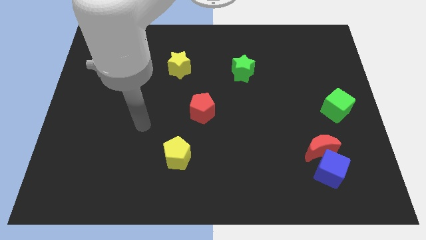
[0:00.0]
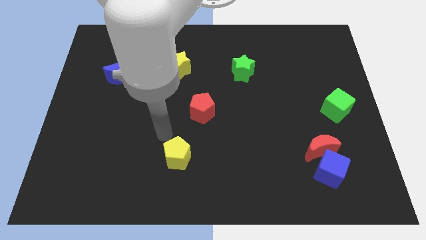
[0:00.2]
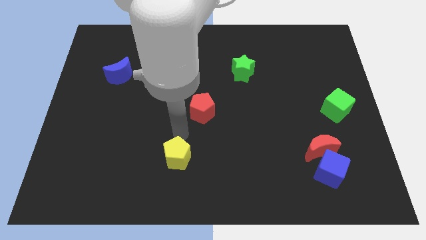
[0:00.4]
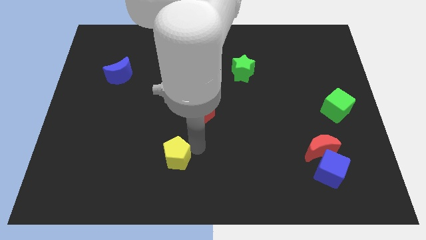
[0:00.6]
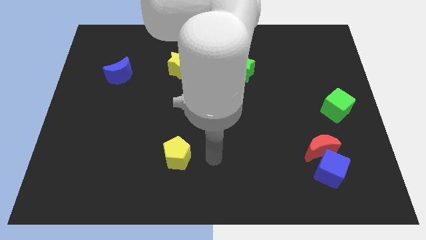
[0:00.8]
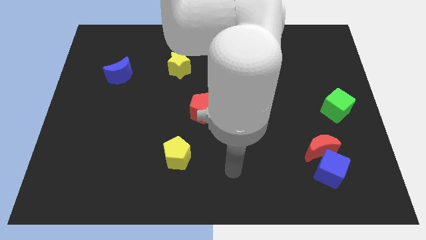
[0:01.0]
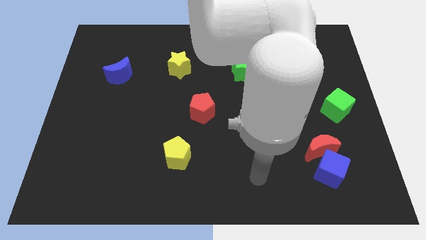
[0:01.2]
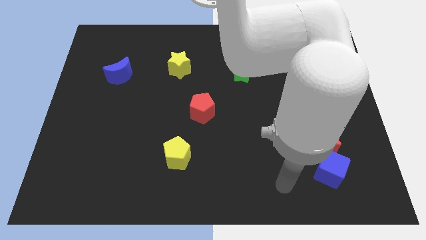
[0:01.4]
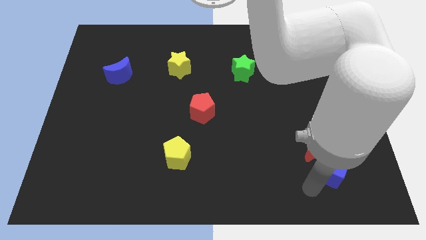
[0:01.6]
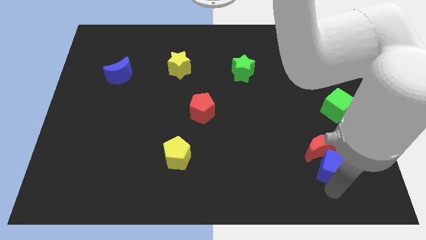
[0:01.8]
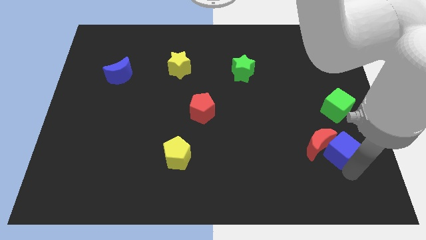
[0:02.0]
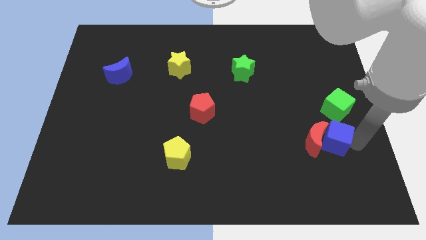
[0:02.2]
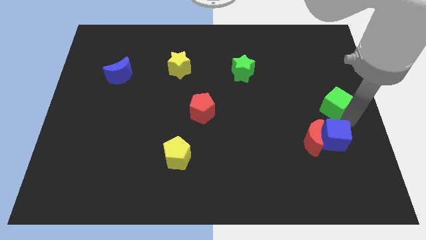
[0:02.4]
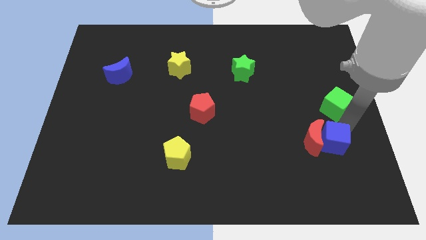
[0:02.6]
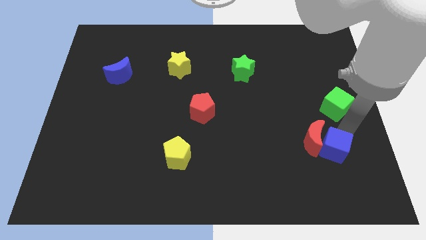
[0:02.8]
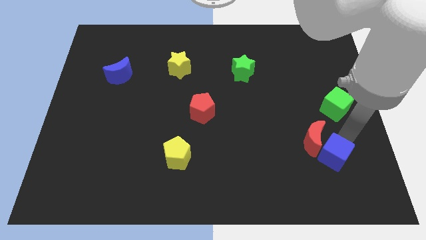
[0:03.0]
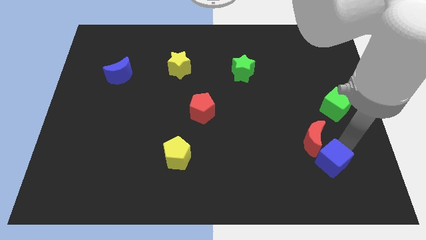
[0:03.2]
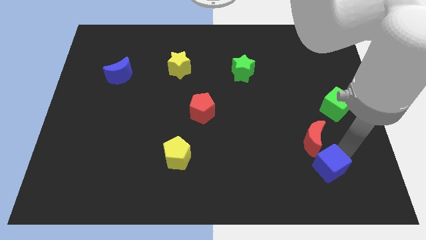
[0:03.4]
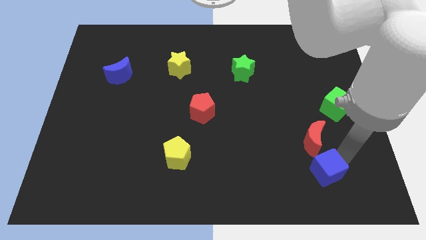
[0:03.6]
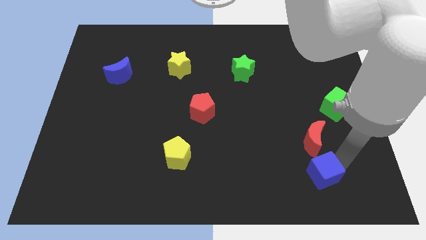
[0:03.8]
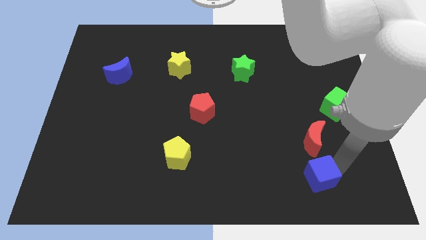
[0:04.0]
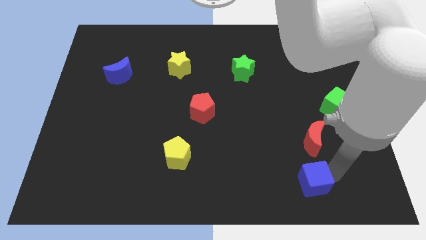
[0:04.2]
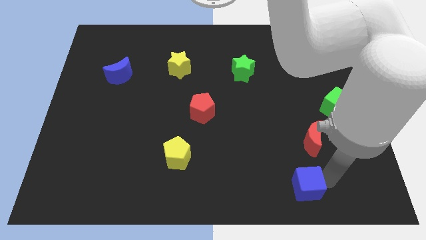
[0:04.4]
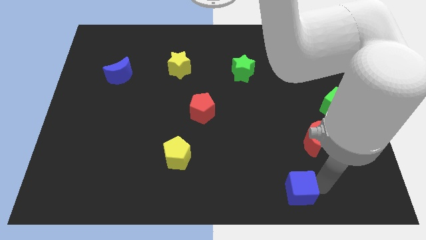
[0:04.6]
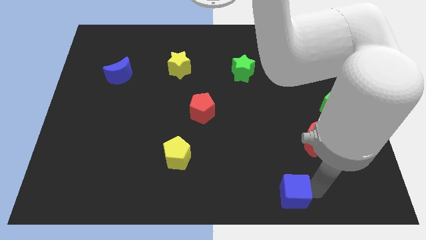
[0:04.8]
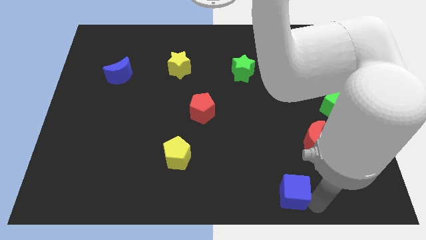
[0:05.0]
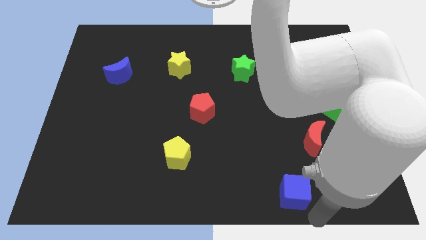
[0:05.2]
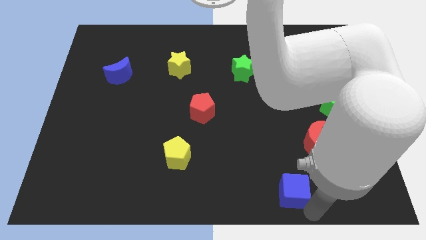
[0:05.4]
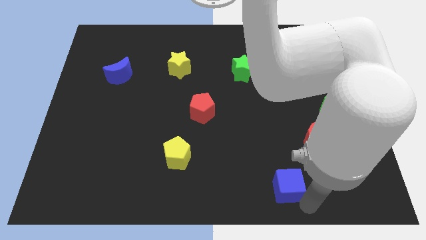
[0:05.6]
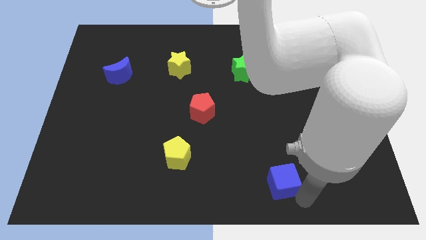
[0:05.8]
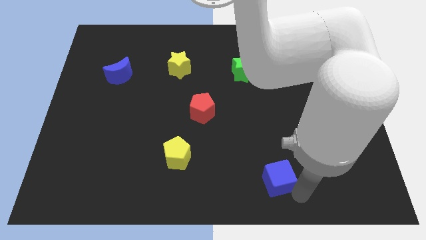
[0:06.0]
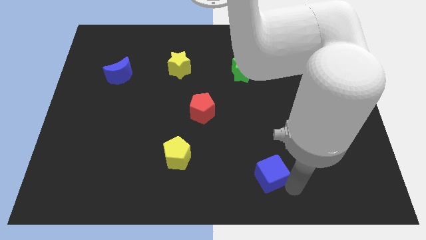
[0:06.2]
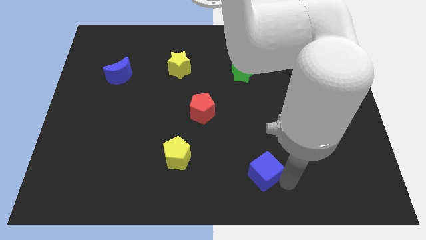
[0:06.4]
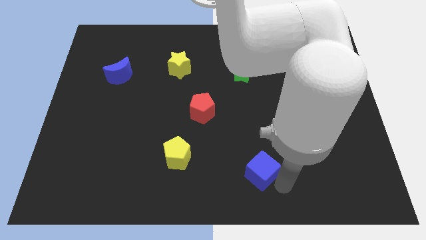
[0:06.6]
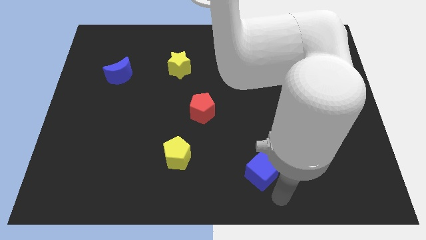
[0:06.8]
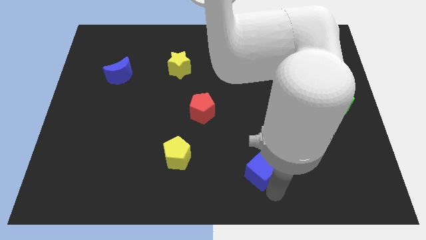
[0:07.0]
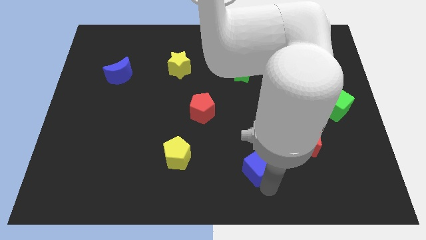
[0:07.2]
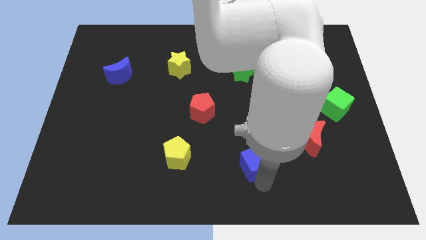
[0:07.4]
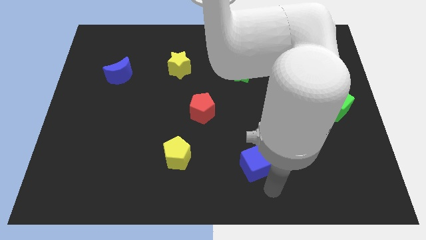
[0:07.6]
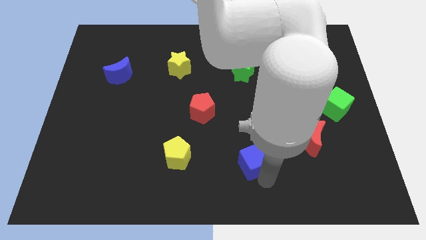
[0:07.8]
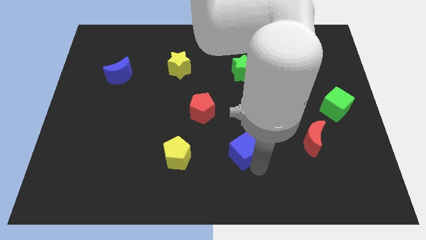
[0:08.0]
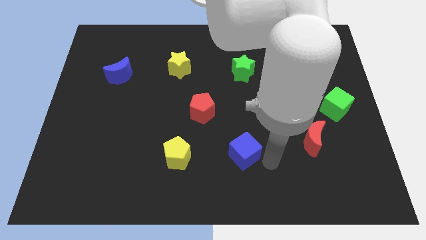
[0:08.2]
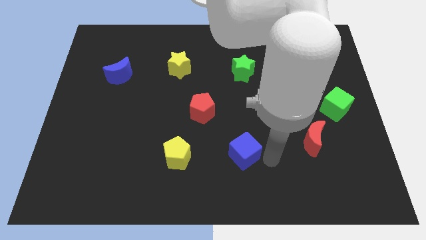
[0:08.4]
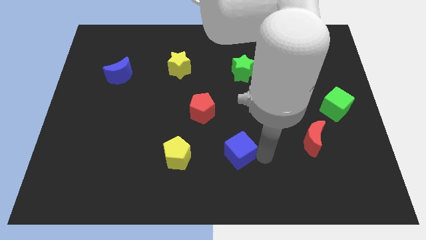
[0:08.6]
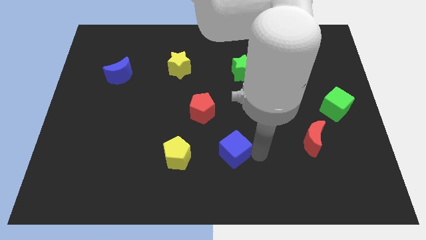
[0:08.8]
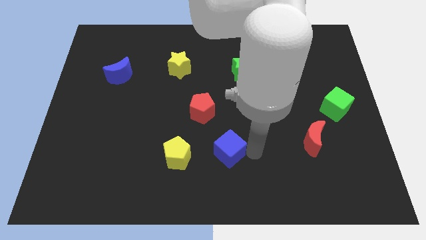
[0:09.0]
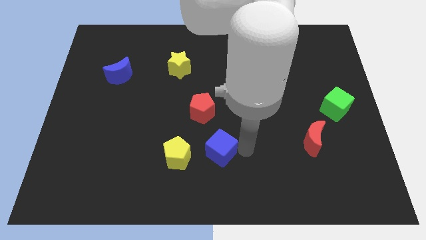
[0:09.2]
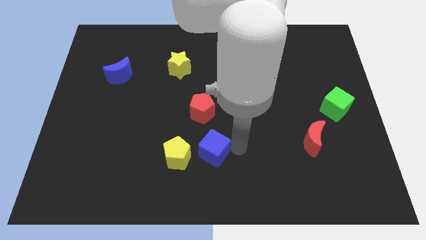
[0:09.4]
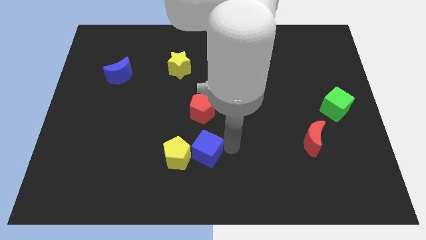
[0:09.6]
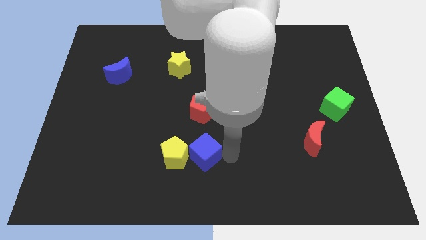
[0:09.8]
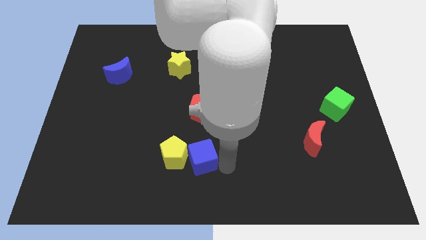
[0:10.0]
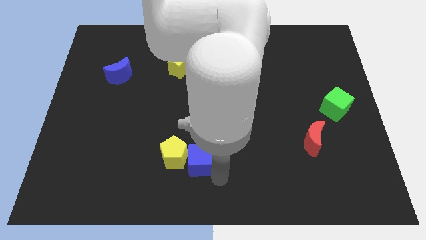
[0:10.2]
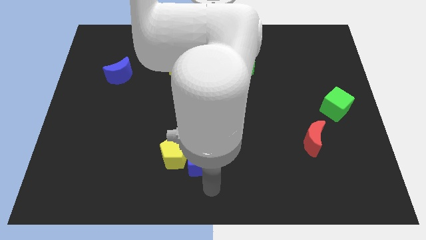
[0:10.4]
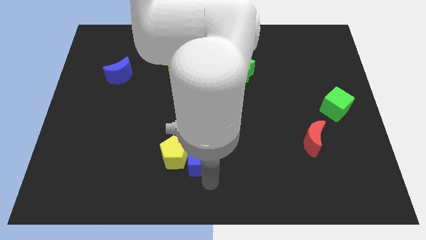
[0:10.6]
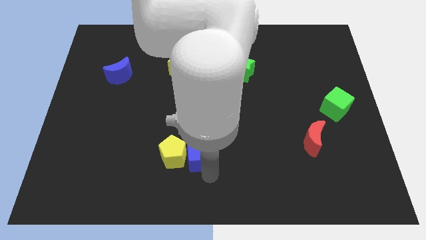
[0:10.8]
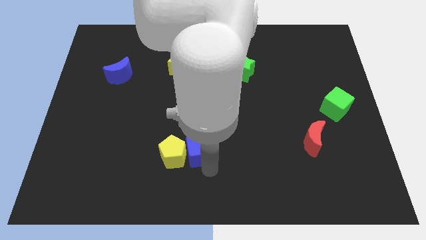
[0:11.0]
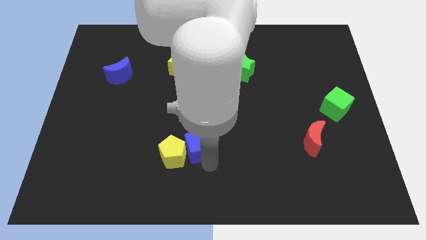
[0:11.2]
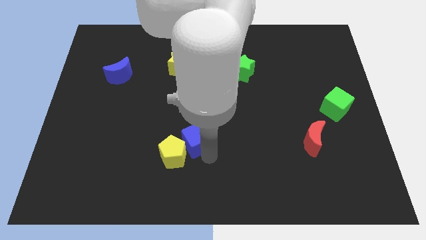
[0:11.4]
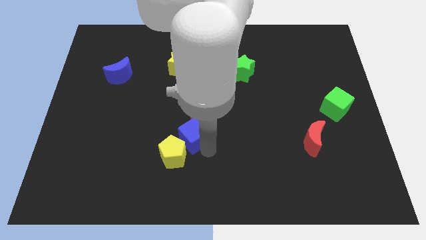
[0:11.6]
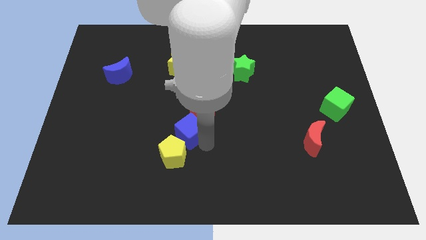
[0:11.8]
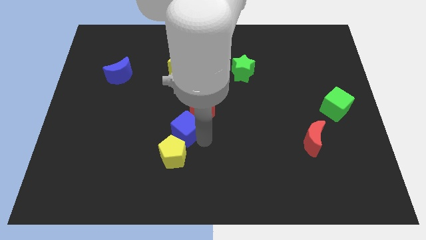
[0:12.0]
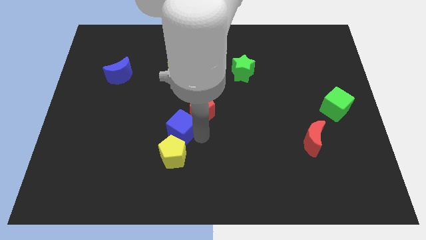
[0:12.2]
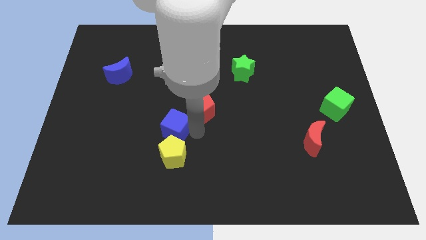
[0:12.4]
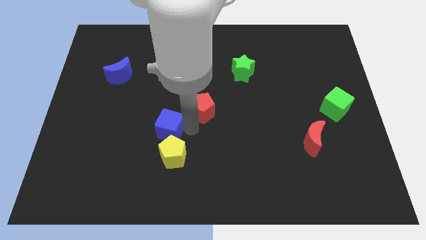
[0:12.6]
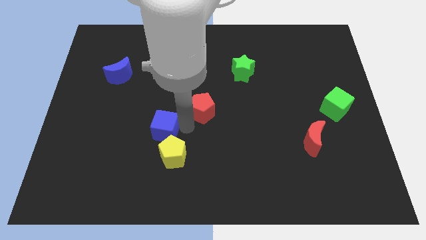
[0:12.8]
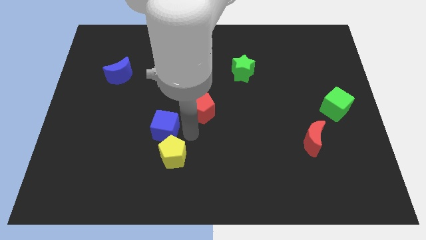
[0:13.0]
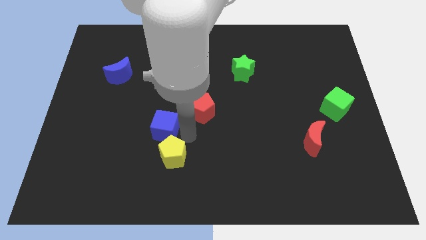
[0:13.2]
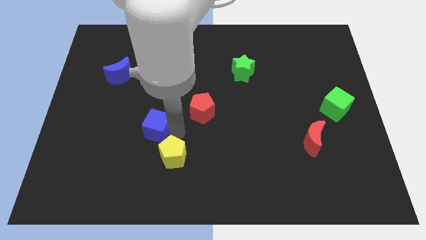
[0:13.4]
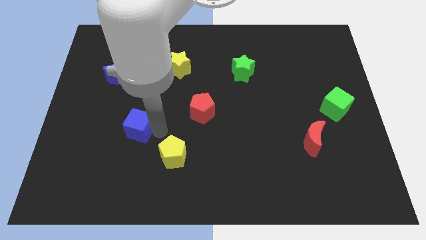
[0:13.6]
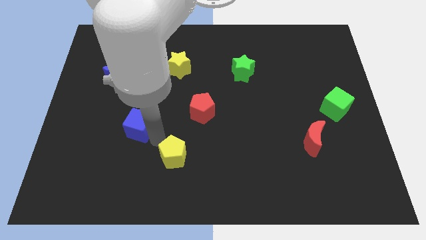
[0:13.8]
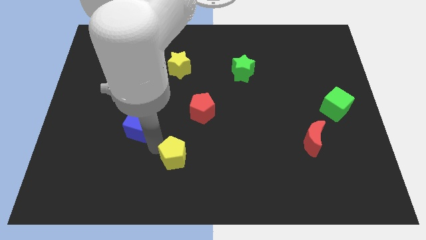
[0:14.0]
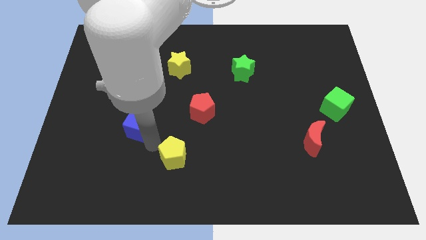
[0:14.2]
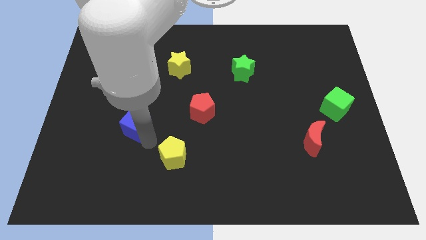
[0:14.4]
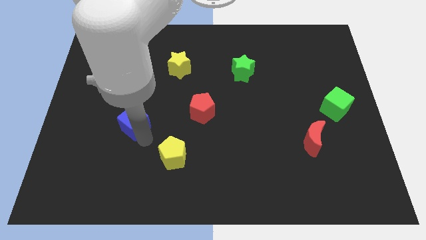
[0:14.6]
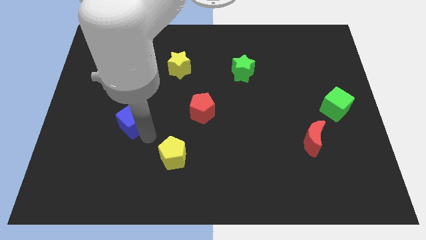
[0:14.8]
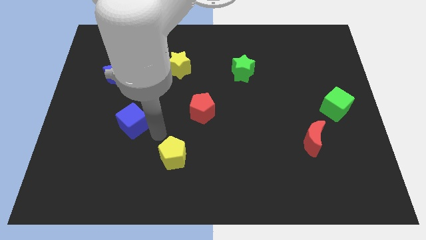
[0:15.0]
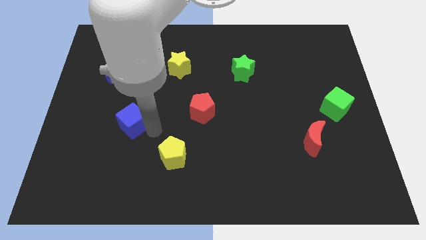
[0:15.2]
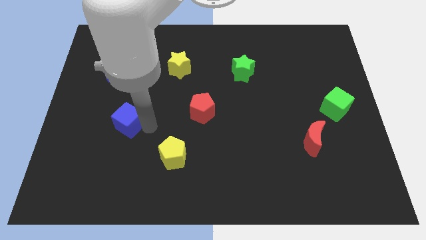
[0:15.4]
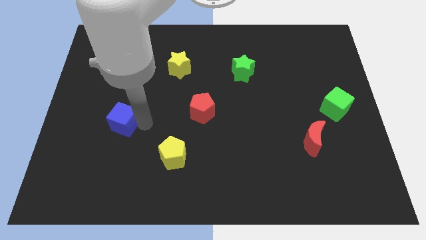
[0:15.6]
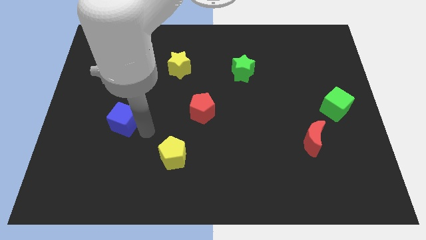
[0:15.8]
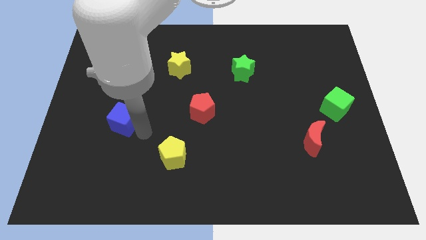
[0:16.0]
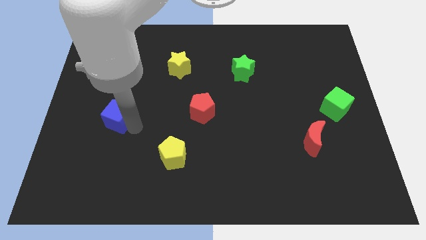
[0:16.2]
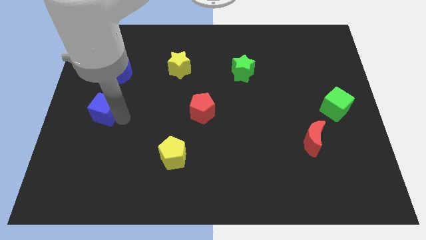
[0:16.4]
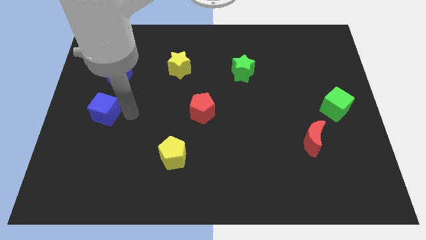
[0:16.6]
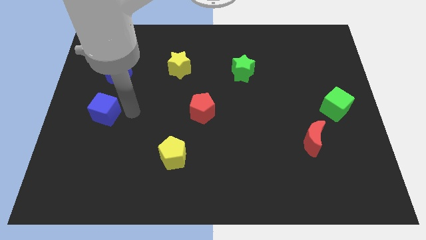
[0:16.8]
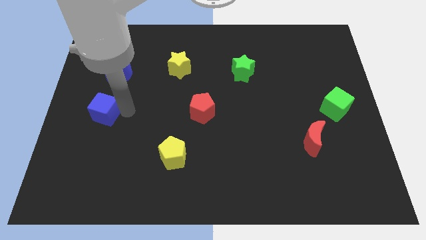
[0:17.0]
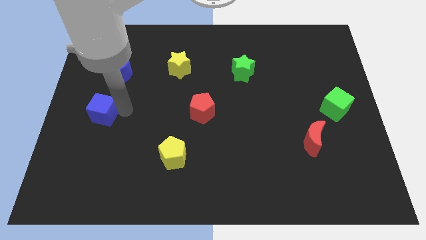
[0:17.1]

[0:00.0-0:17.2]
put the blue cube to the left side
